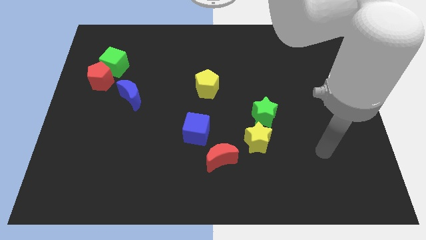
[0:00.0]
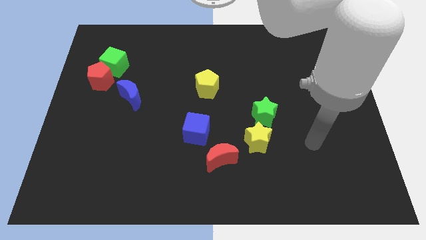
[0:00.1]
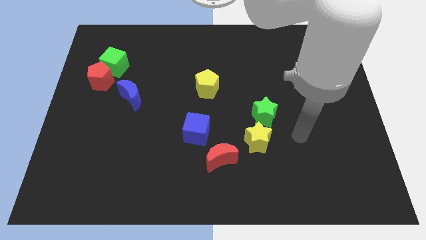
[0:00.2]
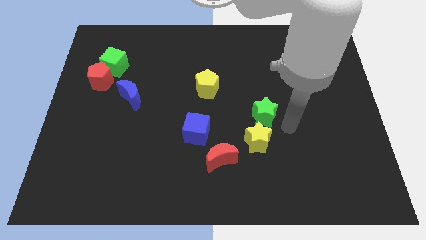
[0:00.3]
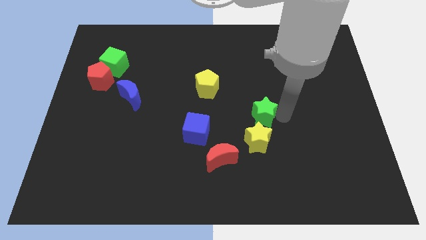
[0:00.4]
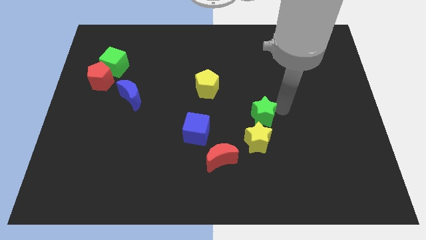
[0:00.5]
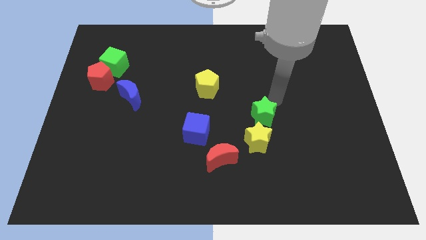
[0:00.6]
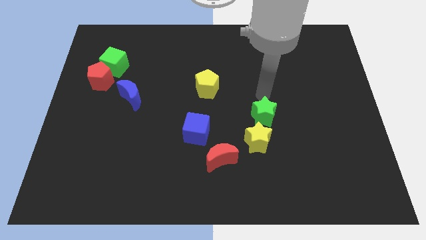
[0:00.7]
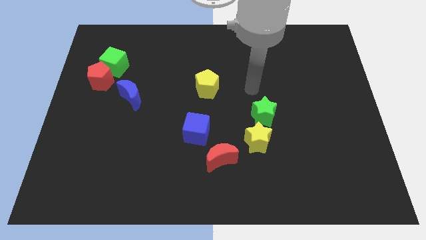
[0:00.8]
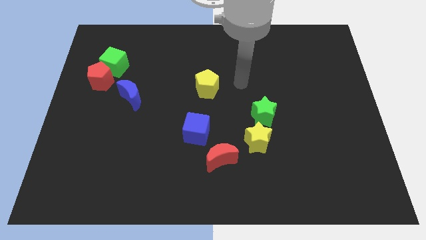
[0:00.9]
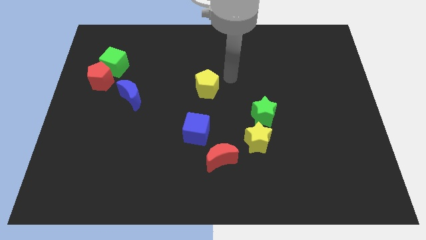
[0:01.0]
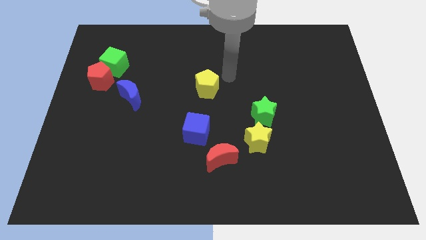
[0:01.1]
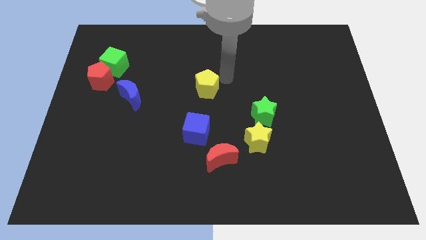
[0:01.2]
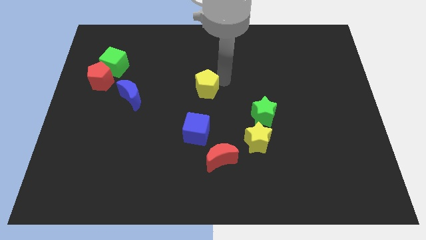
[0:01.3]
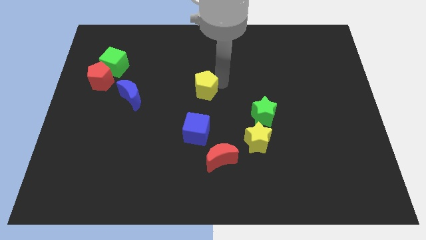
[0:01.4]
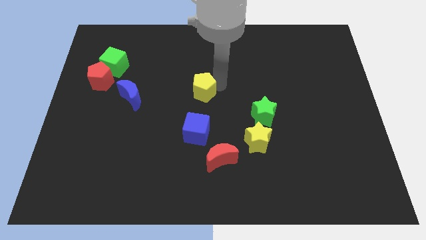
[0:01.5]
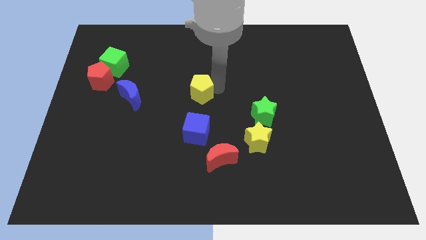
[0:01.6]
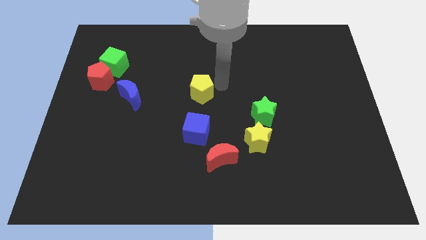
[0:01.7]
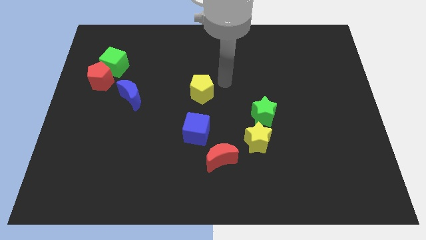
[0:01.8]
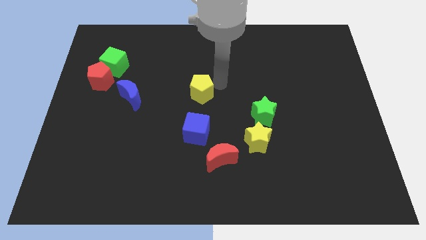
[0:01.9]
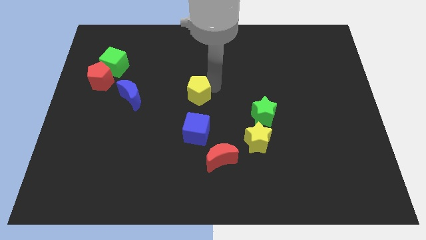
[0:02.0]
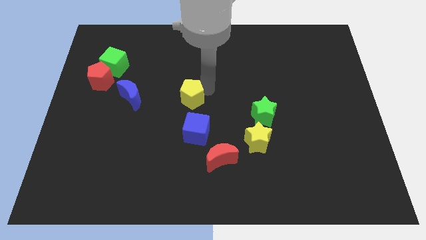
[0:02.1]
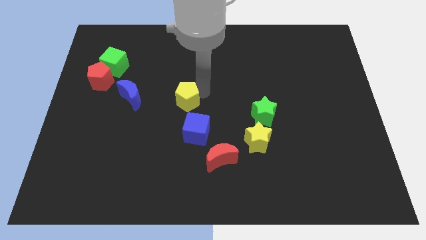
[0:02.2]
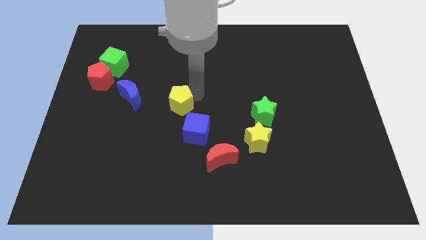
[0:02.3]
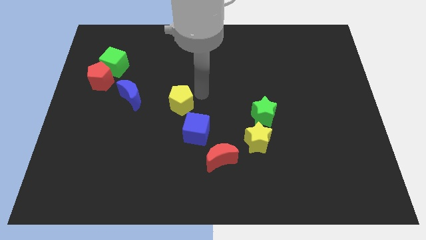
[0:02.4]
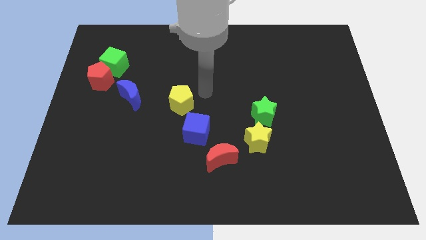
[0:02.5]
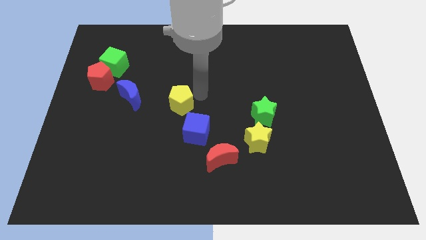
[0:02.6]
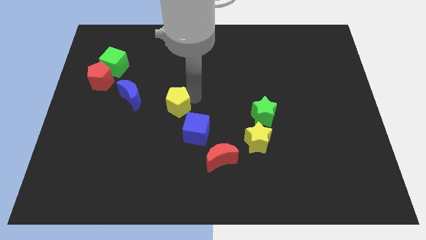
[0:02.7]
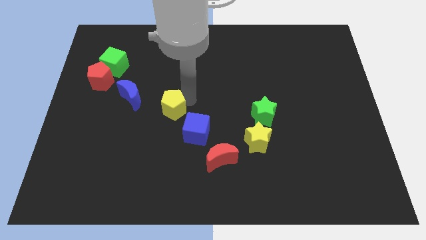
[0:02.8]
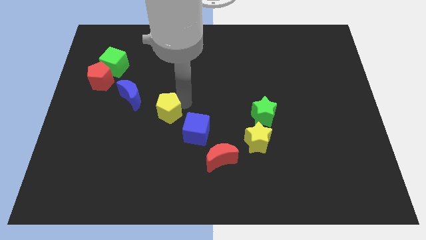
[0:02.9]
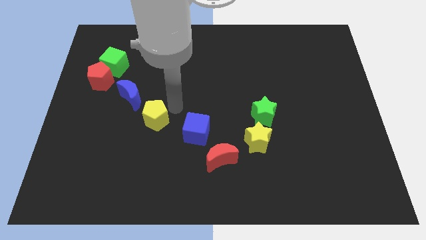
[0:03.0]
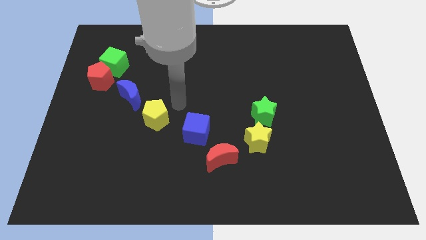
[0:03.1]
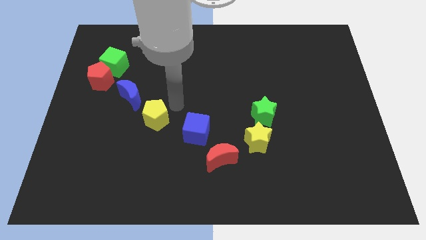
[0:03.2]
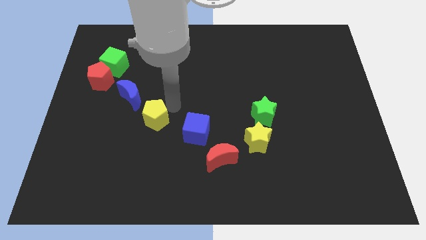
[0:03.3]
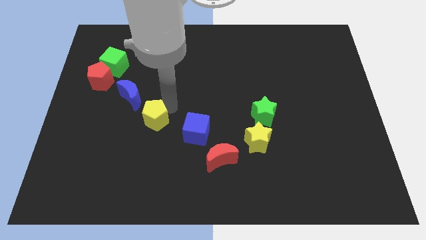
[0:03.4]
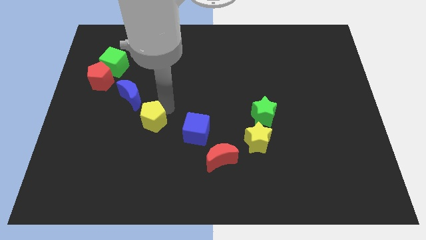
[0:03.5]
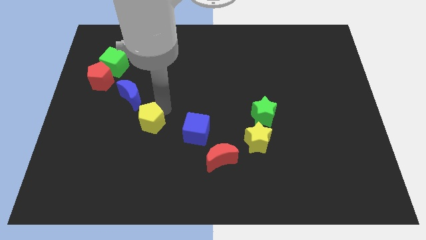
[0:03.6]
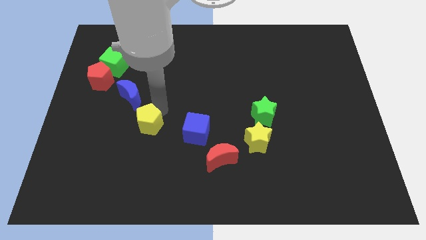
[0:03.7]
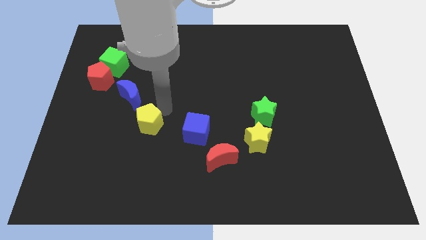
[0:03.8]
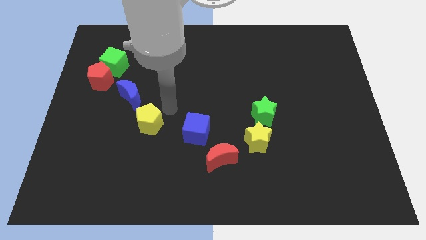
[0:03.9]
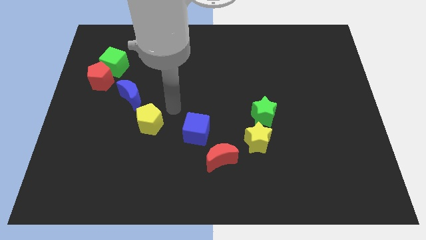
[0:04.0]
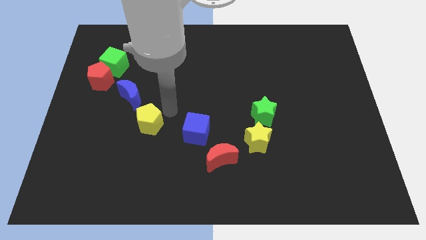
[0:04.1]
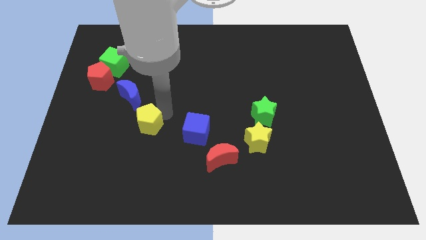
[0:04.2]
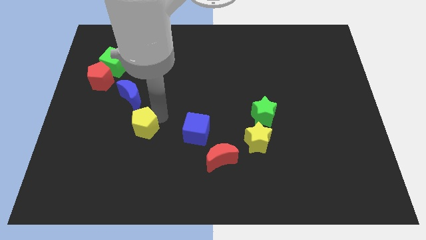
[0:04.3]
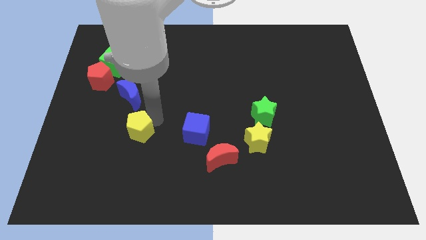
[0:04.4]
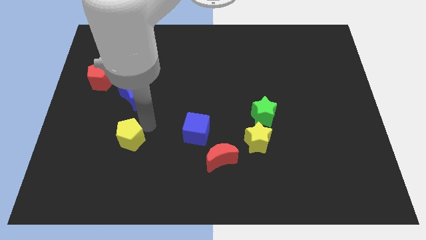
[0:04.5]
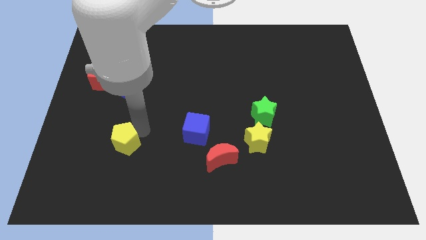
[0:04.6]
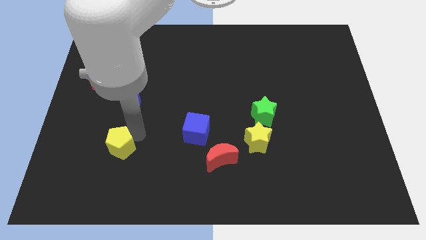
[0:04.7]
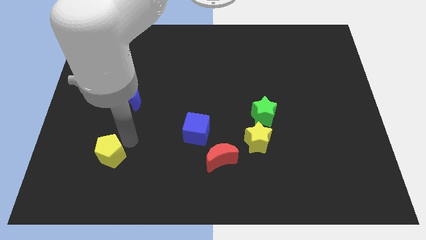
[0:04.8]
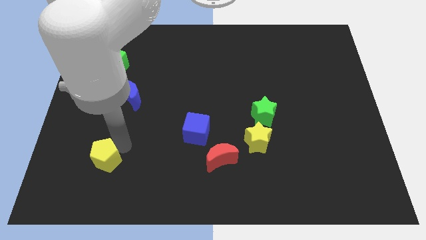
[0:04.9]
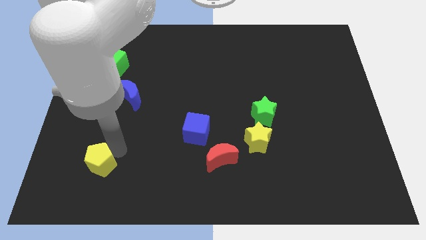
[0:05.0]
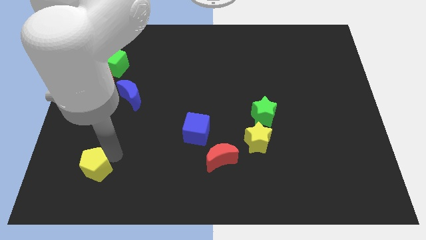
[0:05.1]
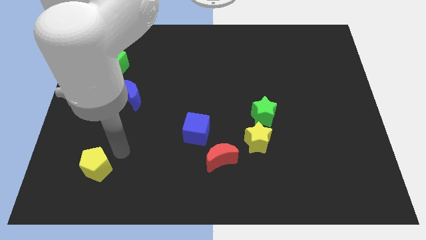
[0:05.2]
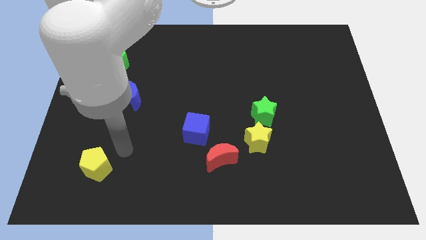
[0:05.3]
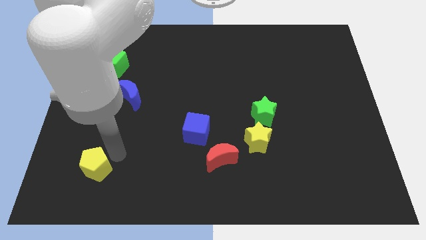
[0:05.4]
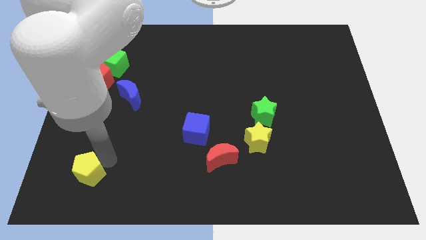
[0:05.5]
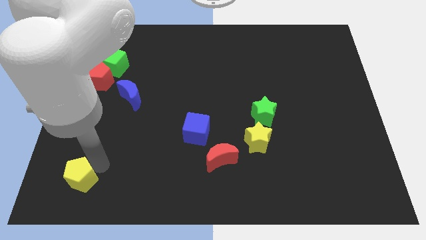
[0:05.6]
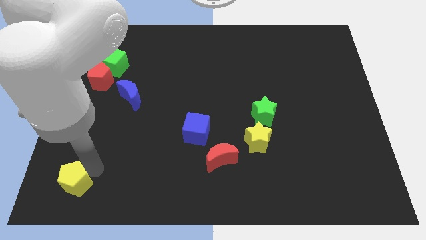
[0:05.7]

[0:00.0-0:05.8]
put the yellow pentagon to the lower left corner

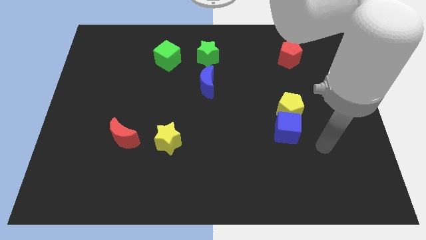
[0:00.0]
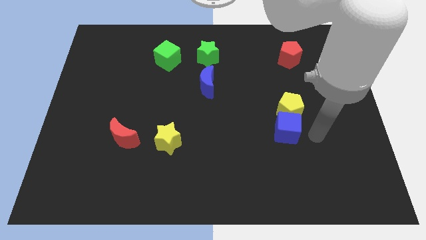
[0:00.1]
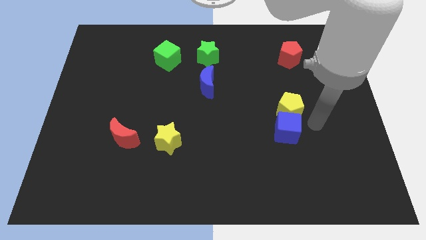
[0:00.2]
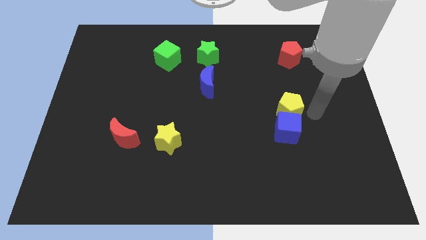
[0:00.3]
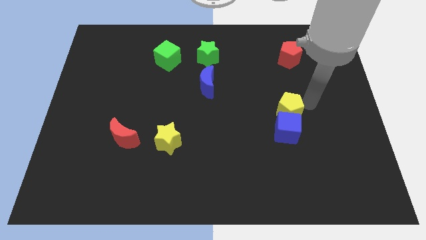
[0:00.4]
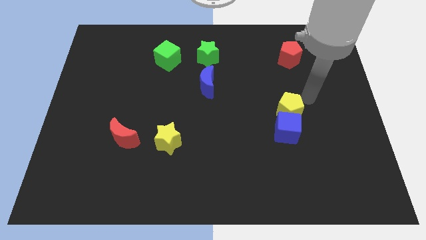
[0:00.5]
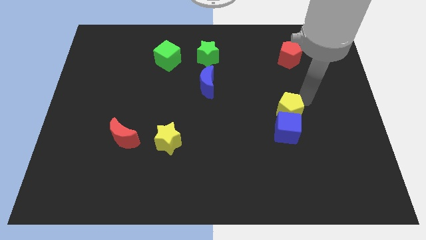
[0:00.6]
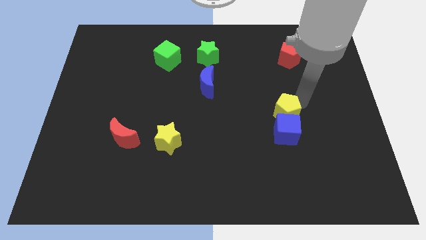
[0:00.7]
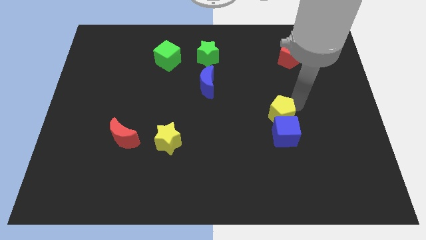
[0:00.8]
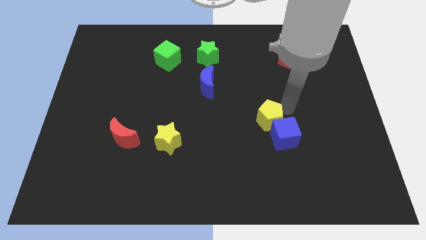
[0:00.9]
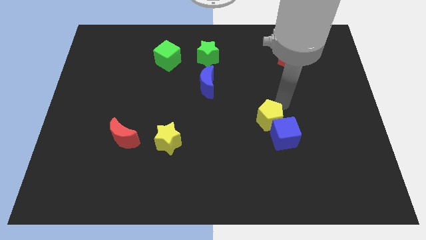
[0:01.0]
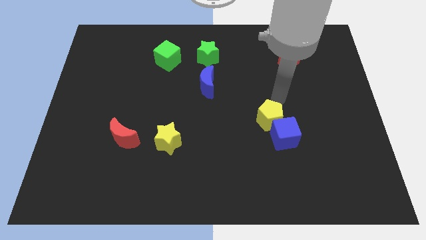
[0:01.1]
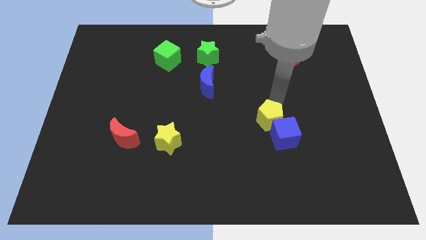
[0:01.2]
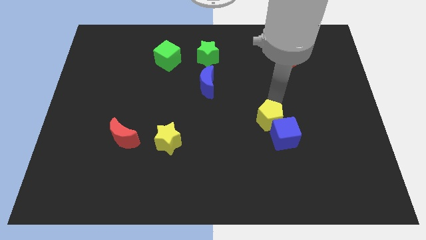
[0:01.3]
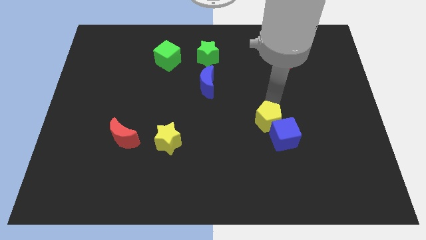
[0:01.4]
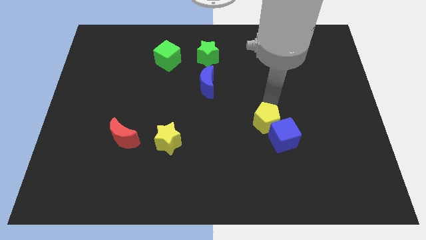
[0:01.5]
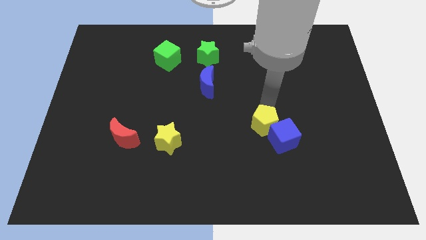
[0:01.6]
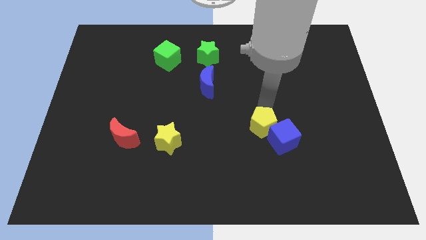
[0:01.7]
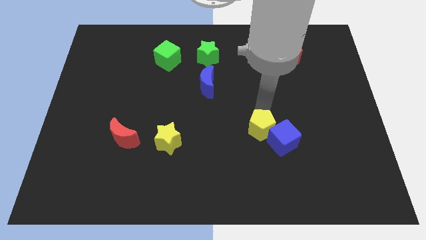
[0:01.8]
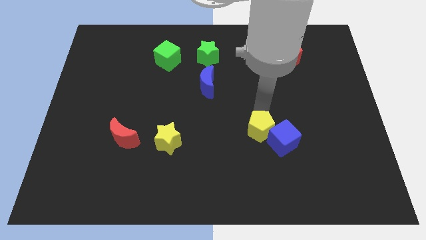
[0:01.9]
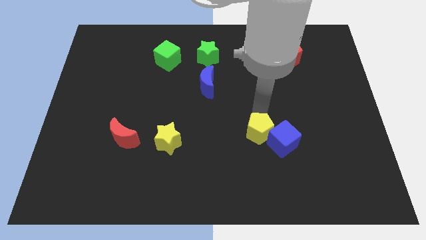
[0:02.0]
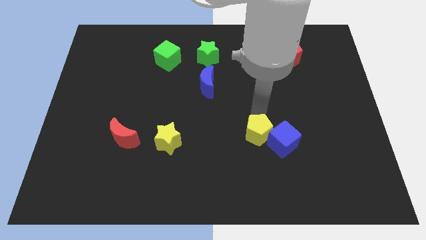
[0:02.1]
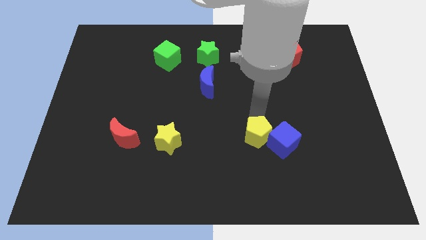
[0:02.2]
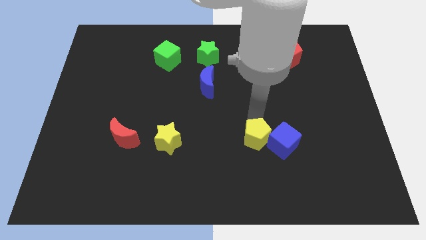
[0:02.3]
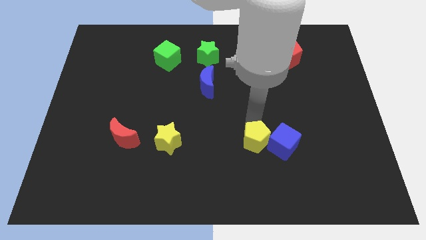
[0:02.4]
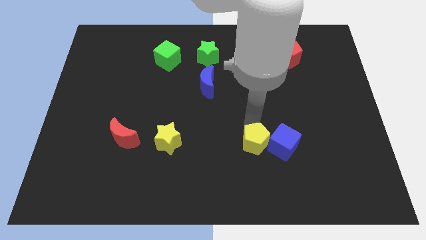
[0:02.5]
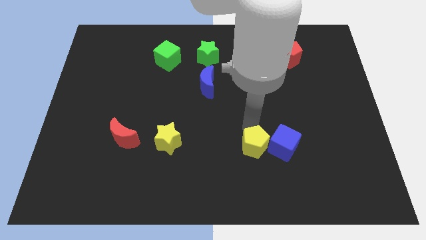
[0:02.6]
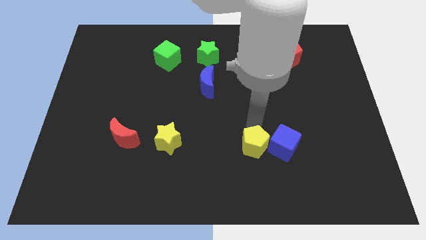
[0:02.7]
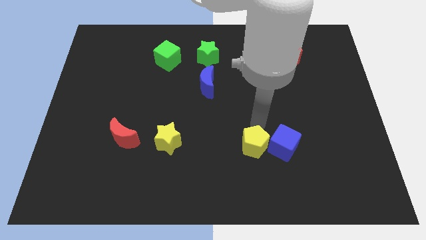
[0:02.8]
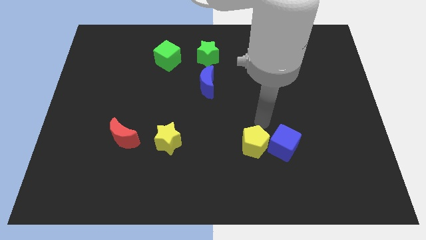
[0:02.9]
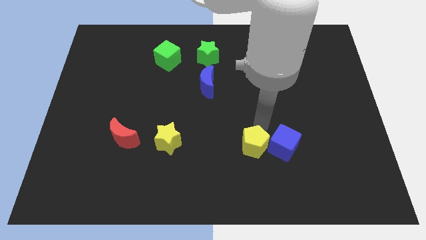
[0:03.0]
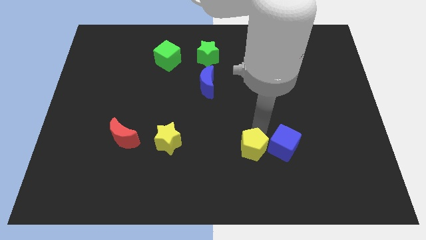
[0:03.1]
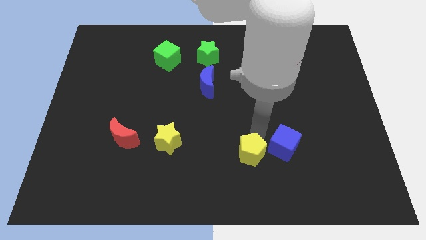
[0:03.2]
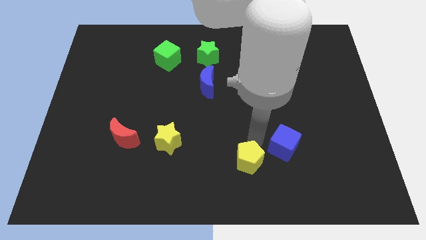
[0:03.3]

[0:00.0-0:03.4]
move the yellow pentagon to the bottom side
